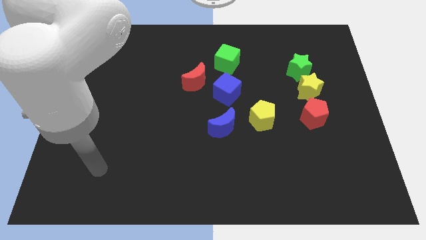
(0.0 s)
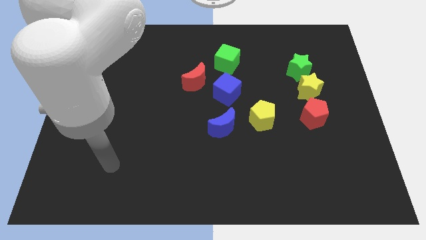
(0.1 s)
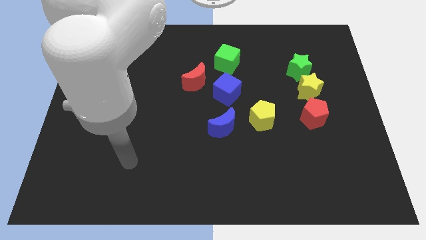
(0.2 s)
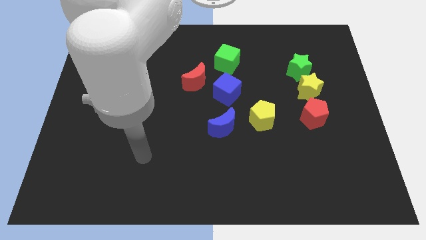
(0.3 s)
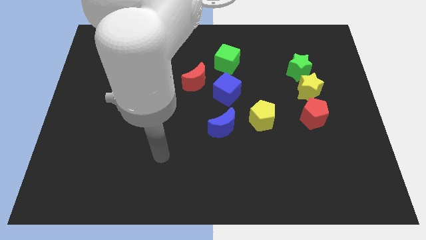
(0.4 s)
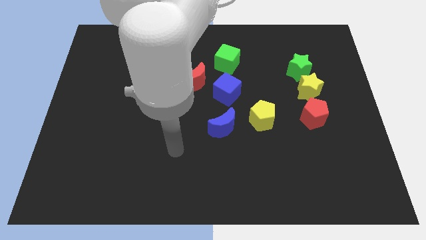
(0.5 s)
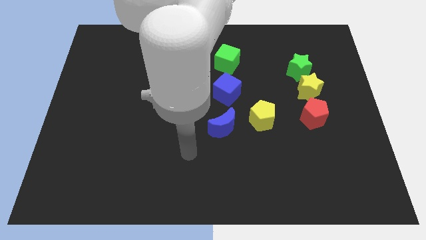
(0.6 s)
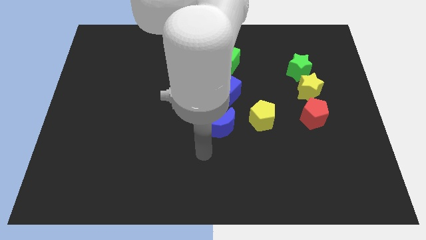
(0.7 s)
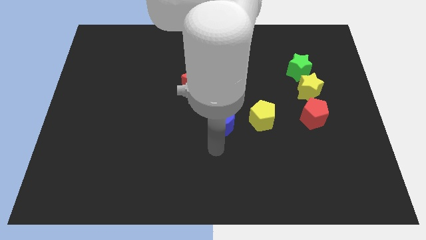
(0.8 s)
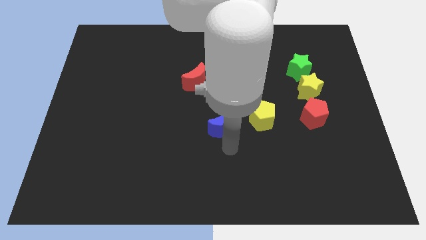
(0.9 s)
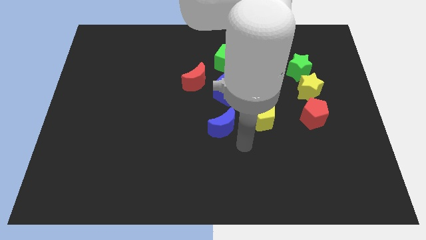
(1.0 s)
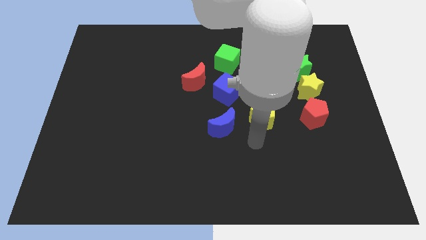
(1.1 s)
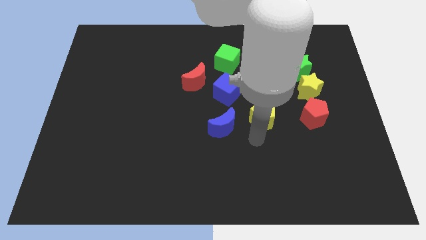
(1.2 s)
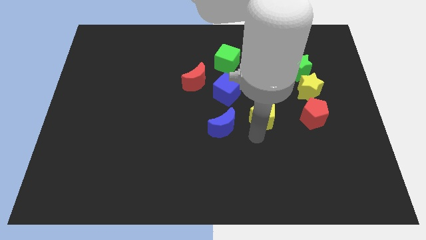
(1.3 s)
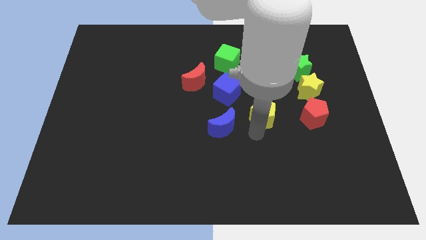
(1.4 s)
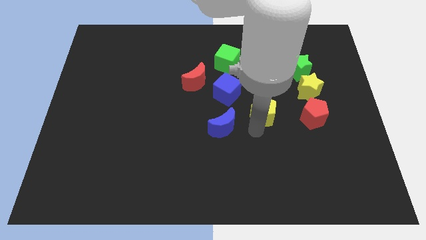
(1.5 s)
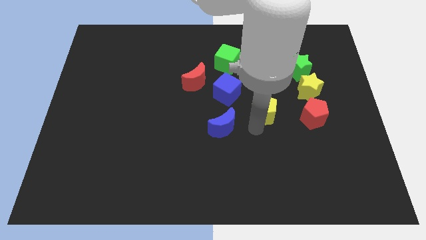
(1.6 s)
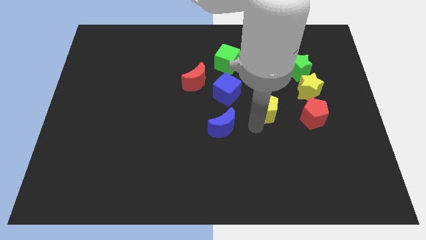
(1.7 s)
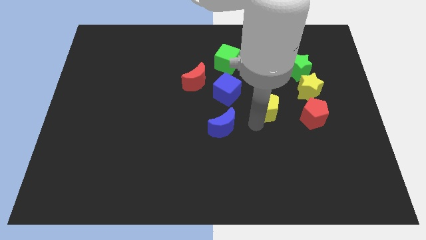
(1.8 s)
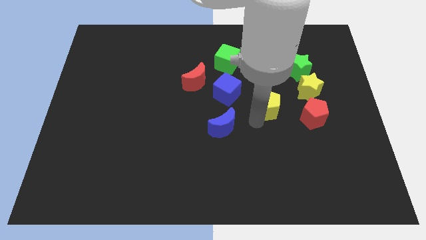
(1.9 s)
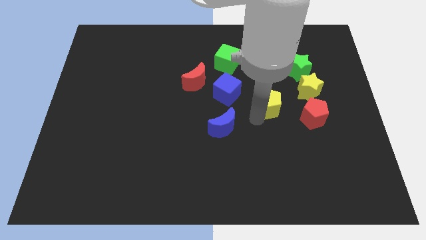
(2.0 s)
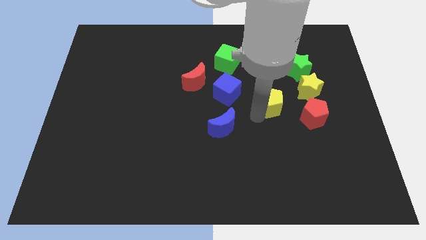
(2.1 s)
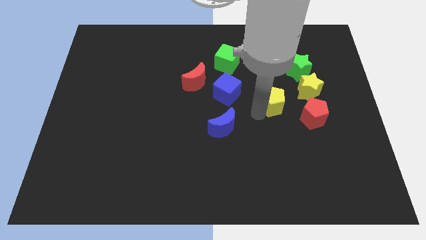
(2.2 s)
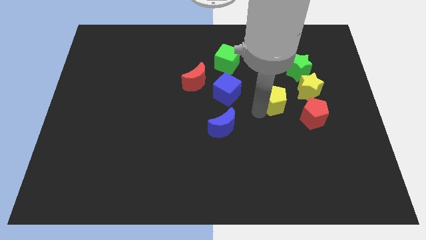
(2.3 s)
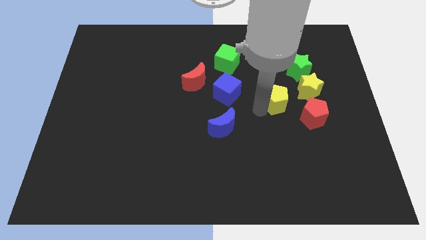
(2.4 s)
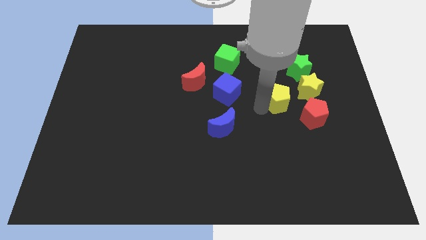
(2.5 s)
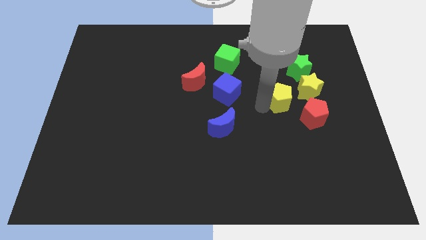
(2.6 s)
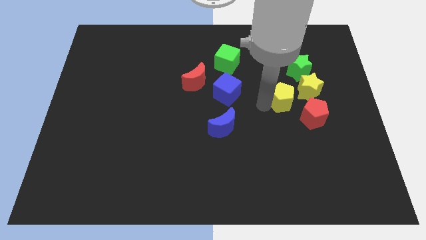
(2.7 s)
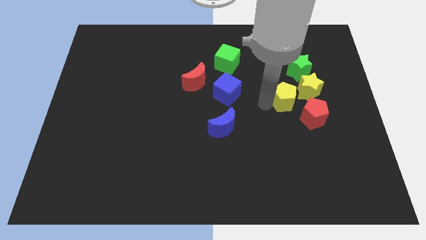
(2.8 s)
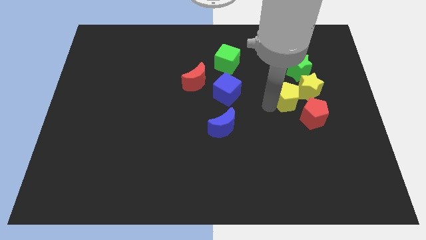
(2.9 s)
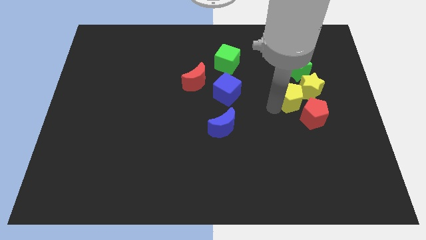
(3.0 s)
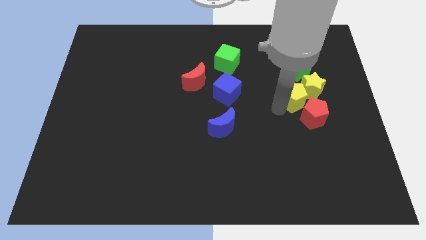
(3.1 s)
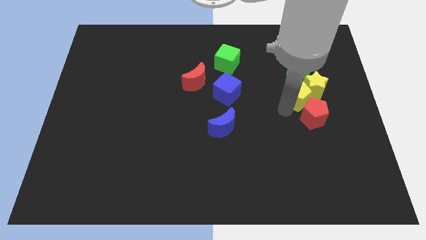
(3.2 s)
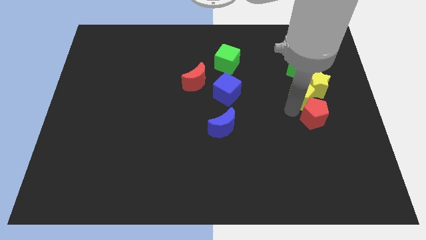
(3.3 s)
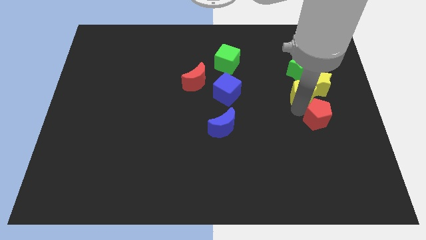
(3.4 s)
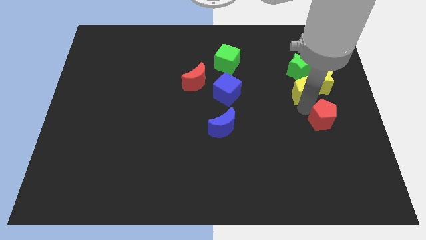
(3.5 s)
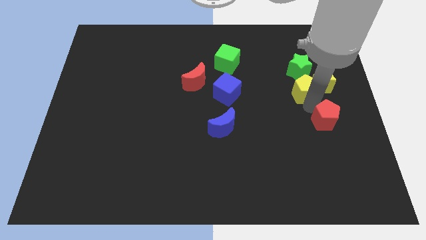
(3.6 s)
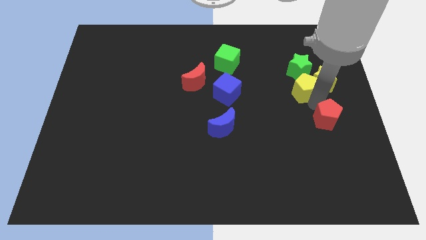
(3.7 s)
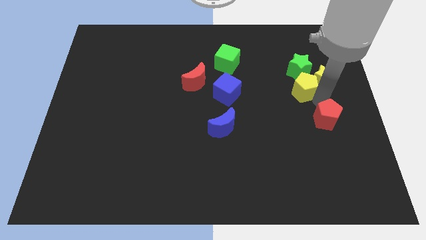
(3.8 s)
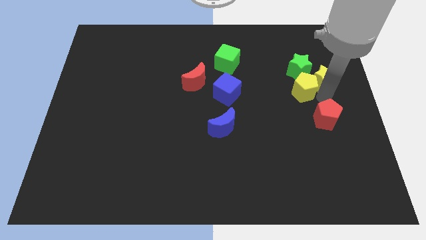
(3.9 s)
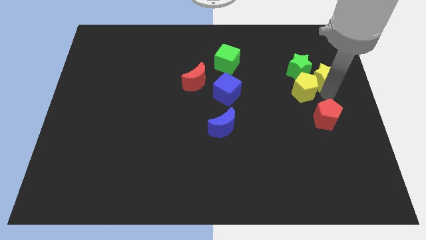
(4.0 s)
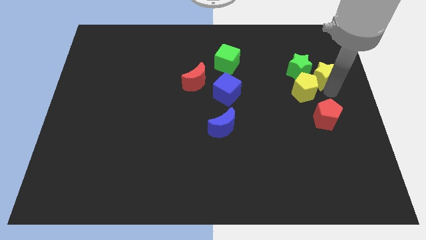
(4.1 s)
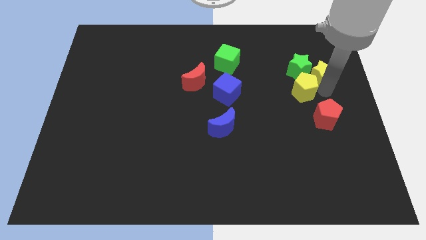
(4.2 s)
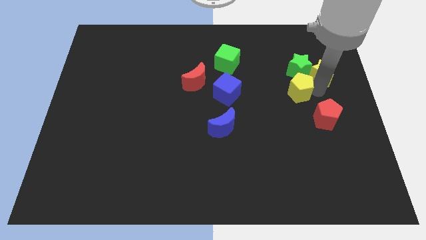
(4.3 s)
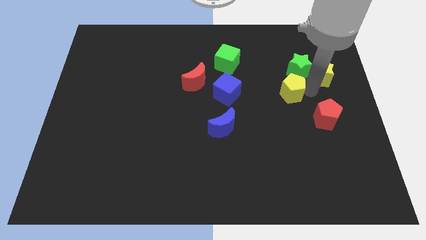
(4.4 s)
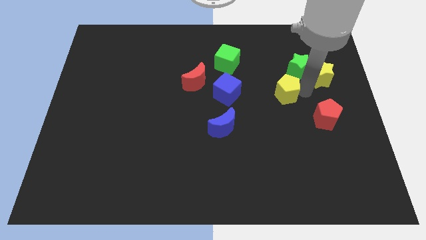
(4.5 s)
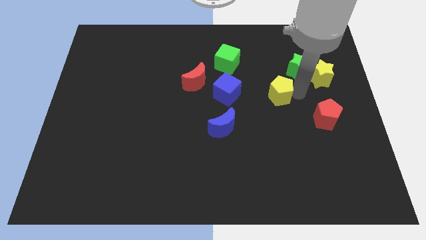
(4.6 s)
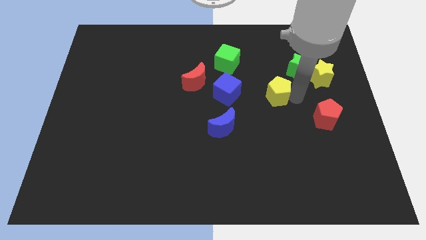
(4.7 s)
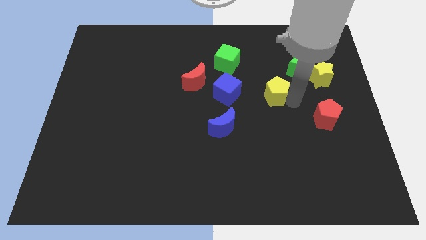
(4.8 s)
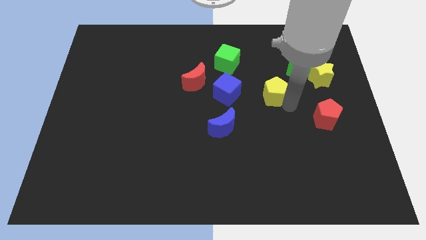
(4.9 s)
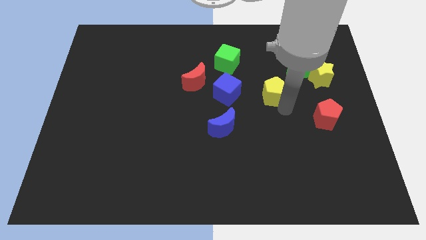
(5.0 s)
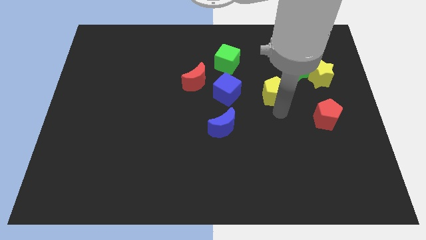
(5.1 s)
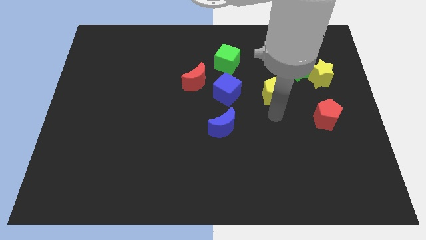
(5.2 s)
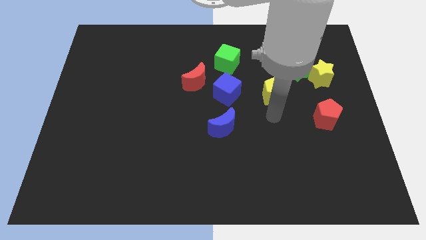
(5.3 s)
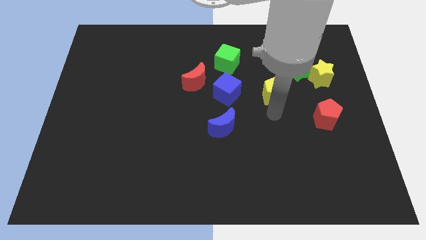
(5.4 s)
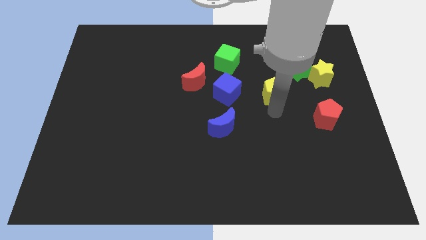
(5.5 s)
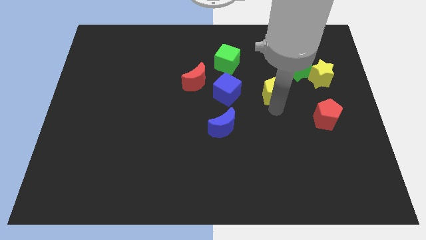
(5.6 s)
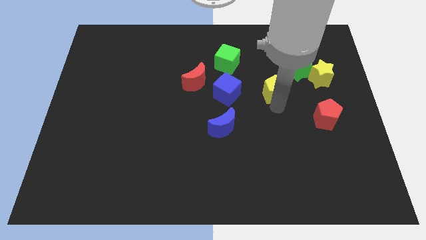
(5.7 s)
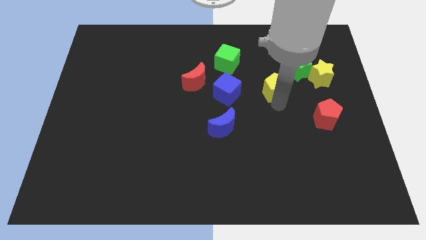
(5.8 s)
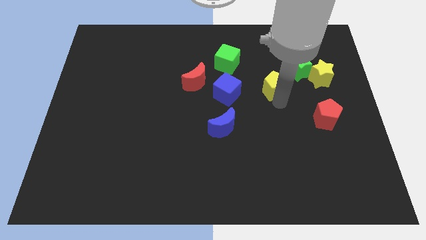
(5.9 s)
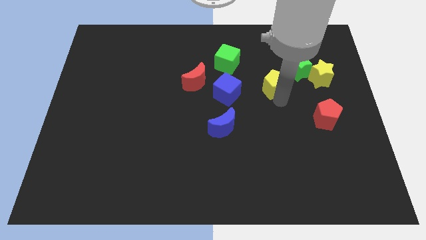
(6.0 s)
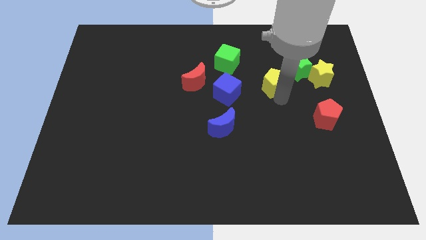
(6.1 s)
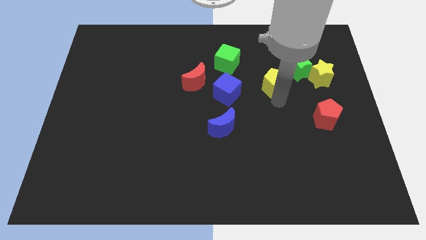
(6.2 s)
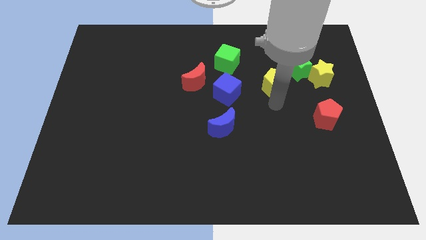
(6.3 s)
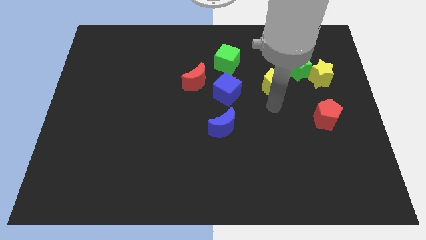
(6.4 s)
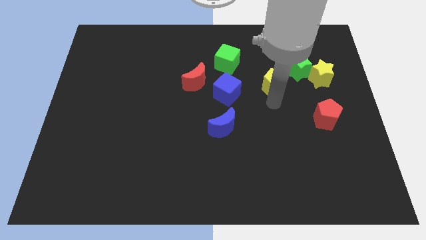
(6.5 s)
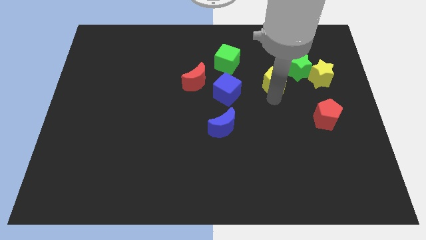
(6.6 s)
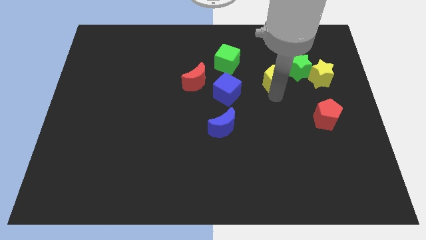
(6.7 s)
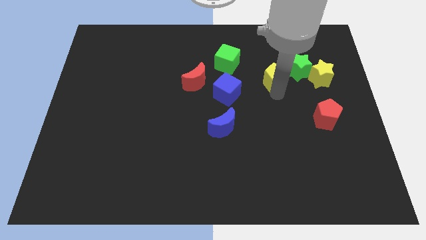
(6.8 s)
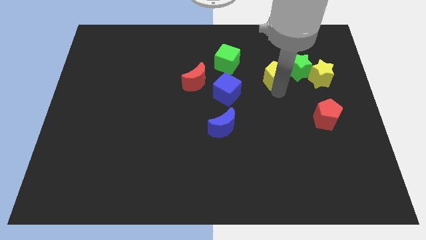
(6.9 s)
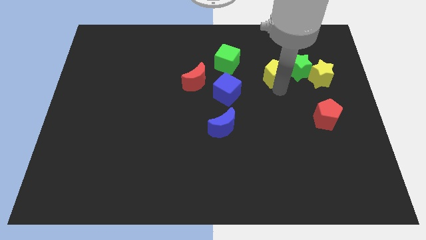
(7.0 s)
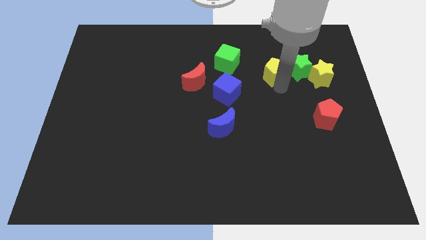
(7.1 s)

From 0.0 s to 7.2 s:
slide the yellow pentagon just right of the green cube

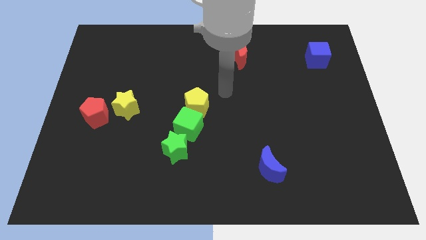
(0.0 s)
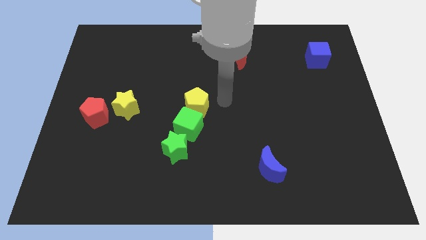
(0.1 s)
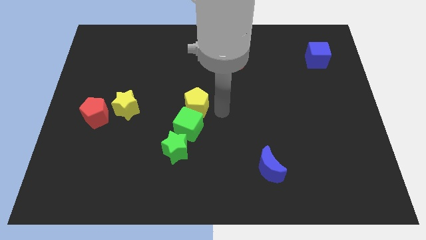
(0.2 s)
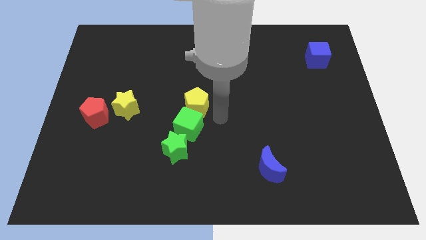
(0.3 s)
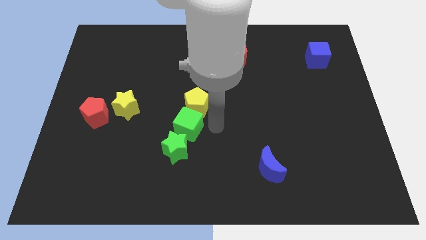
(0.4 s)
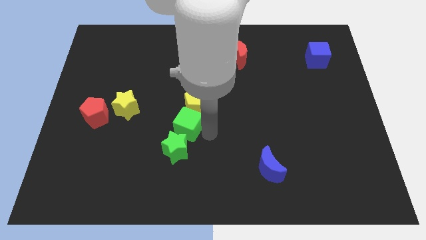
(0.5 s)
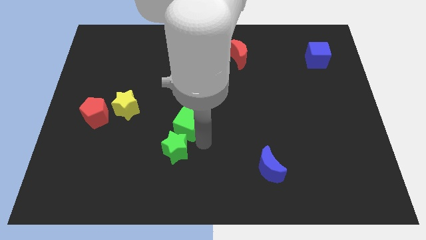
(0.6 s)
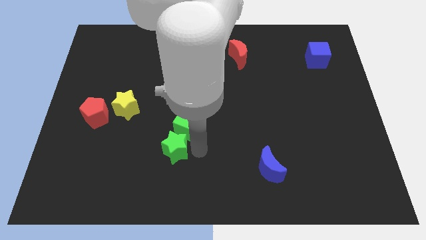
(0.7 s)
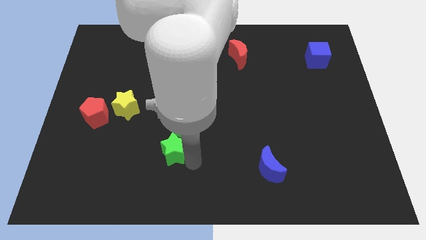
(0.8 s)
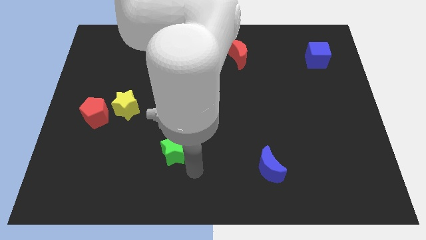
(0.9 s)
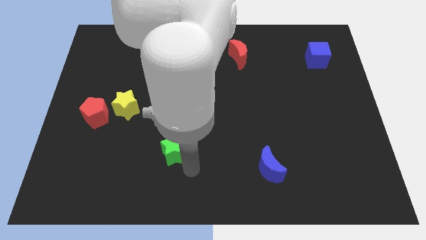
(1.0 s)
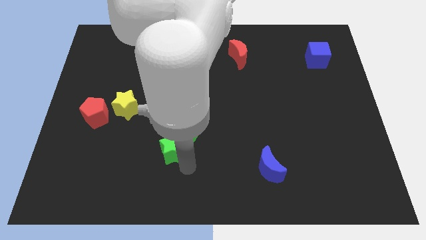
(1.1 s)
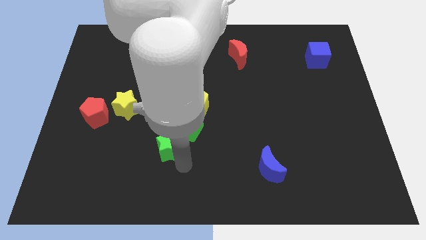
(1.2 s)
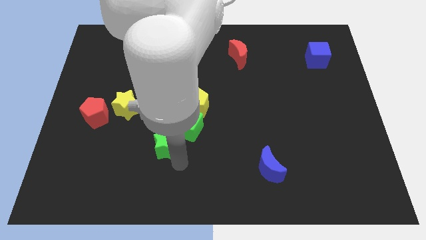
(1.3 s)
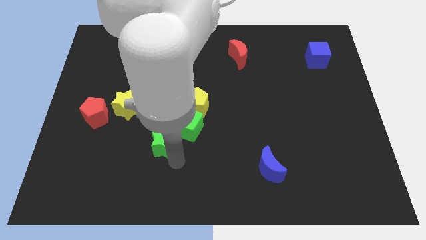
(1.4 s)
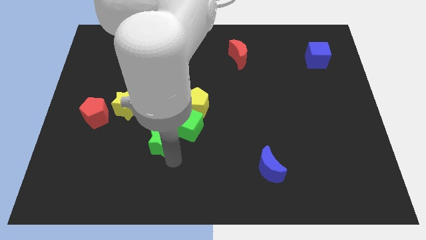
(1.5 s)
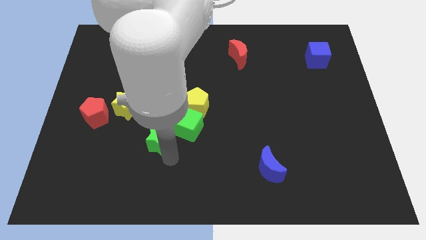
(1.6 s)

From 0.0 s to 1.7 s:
slide the green star to the bottom right side of the yellow star
